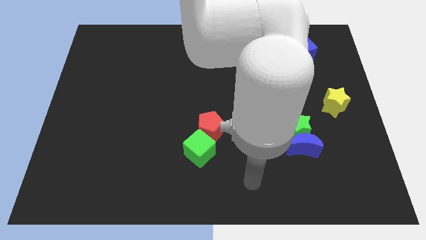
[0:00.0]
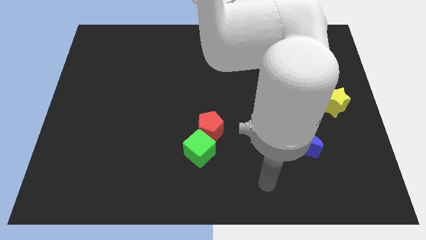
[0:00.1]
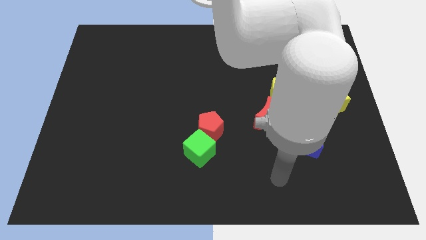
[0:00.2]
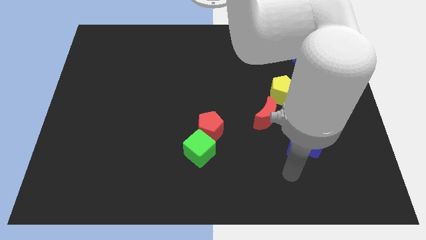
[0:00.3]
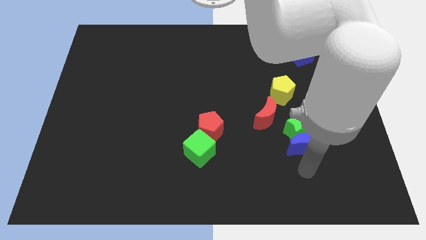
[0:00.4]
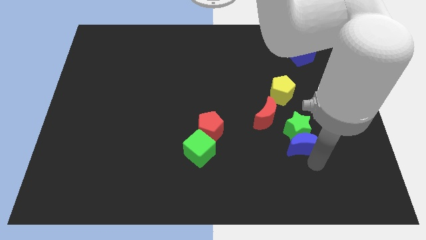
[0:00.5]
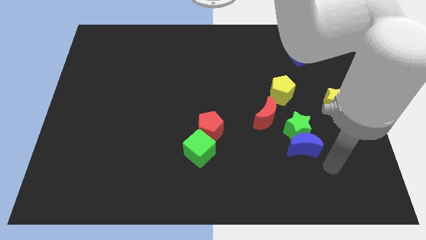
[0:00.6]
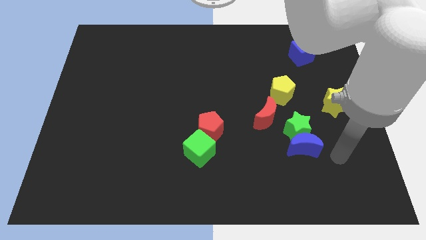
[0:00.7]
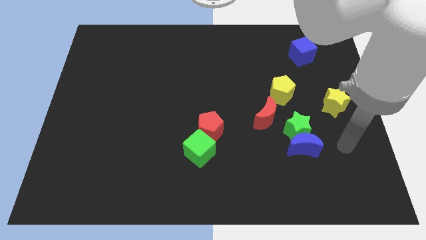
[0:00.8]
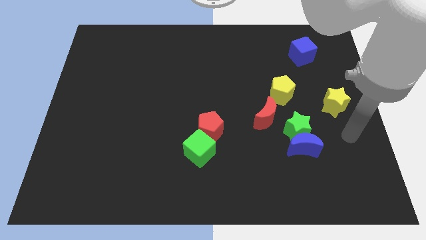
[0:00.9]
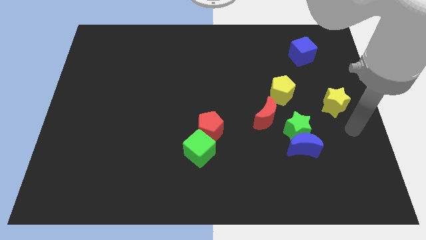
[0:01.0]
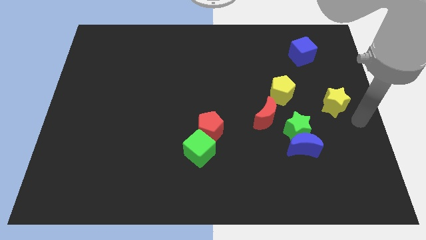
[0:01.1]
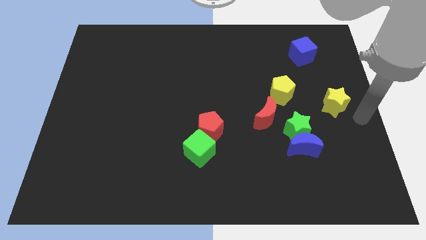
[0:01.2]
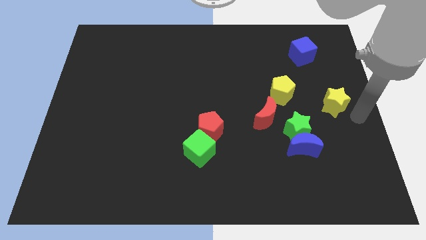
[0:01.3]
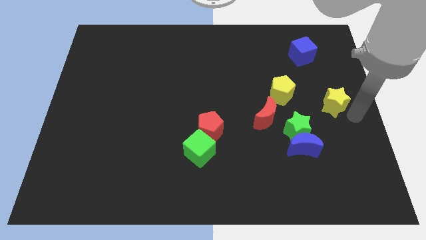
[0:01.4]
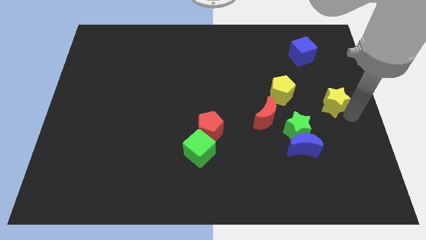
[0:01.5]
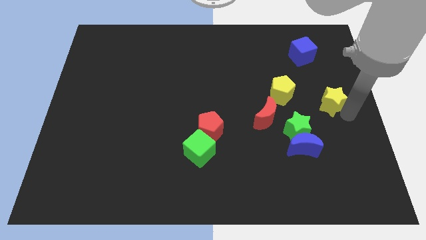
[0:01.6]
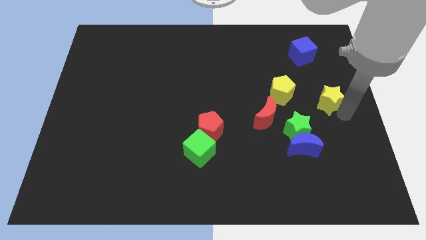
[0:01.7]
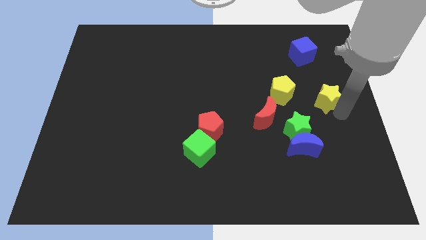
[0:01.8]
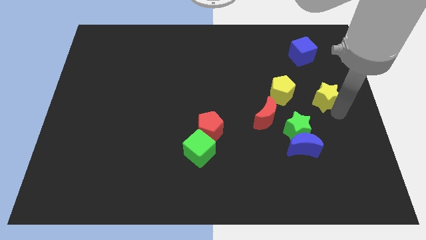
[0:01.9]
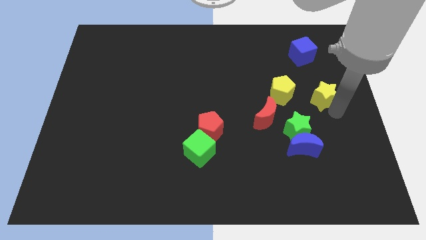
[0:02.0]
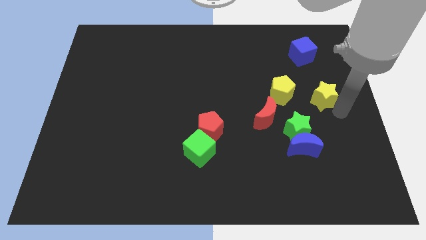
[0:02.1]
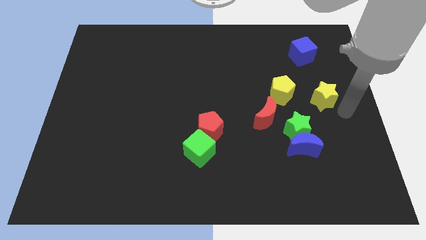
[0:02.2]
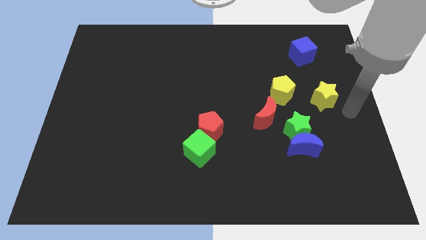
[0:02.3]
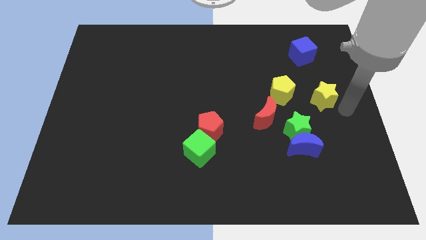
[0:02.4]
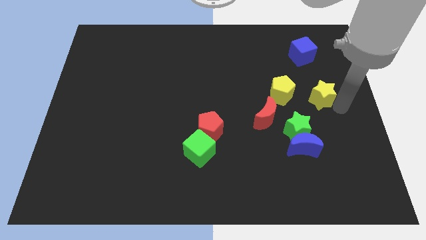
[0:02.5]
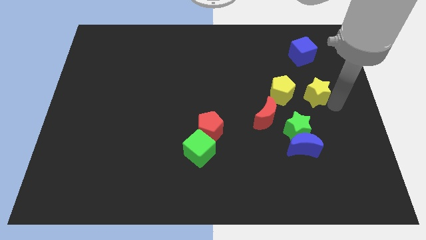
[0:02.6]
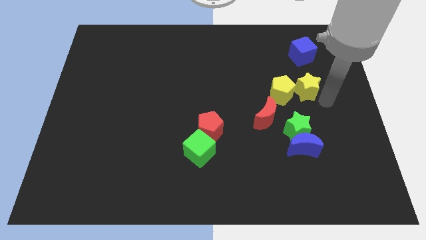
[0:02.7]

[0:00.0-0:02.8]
slide the yellow star slightly up and to the left diagonally

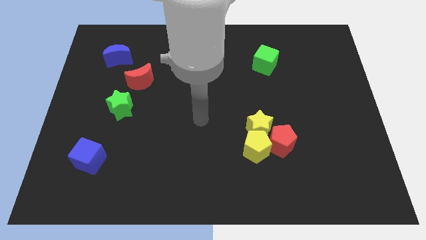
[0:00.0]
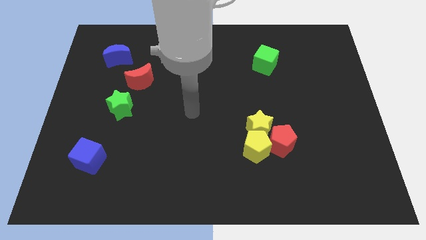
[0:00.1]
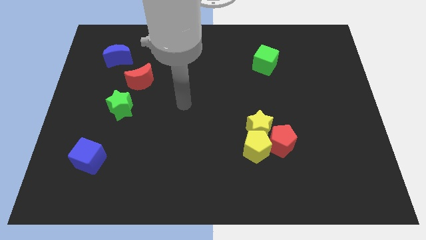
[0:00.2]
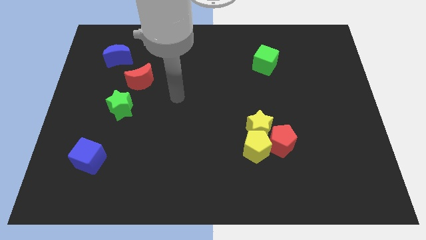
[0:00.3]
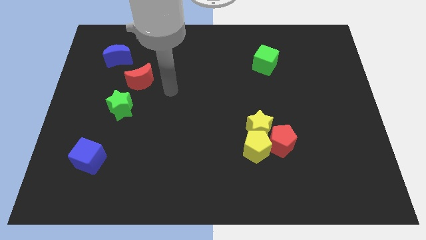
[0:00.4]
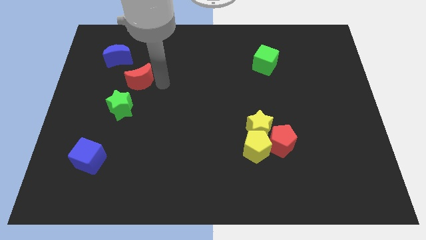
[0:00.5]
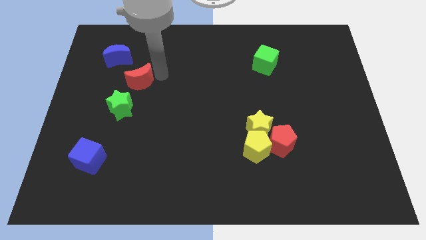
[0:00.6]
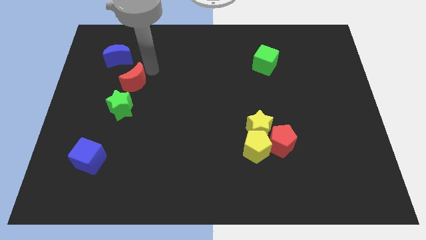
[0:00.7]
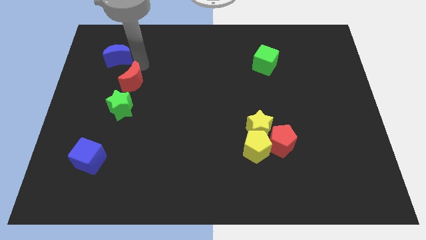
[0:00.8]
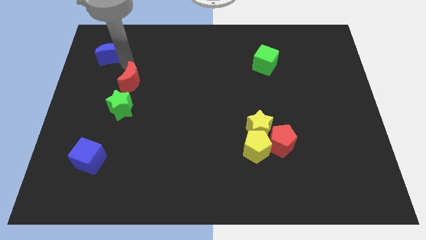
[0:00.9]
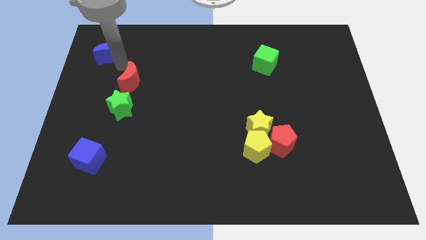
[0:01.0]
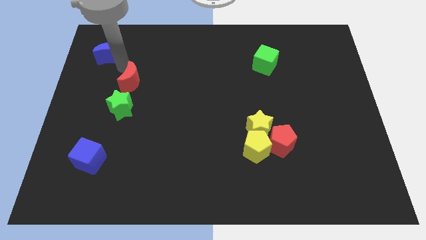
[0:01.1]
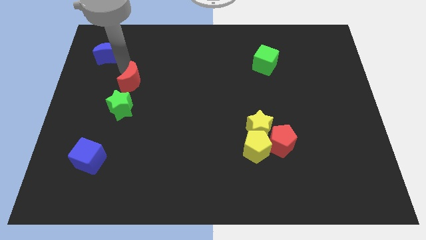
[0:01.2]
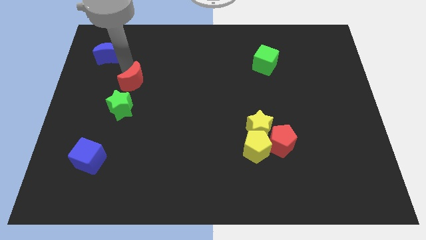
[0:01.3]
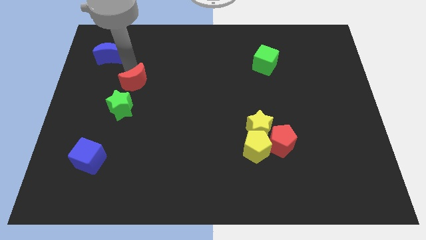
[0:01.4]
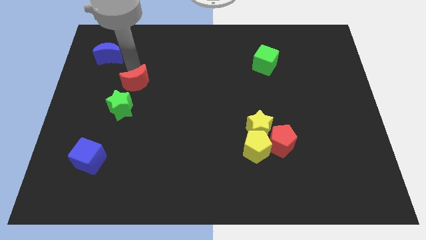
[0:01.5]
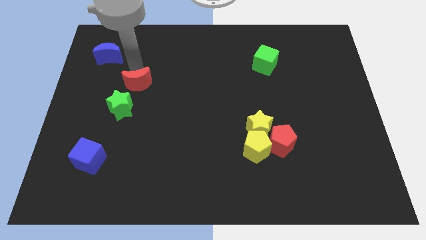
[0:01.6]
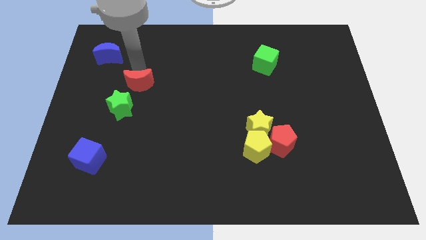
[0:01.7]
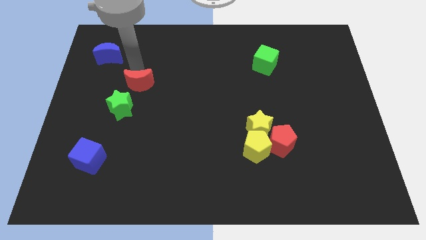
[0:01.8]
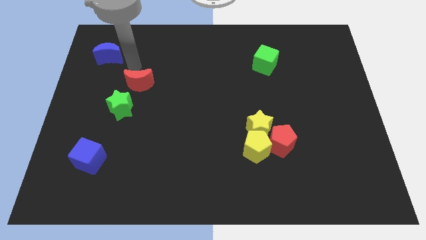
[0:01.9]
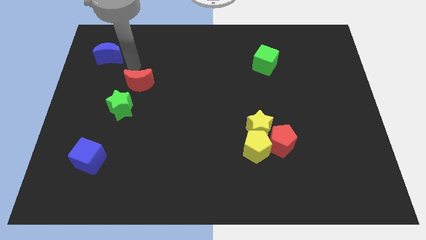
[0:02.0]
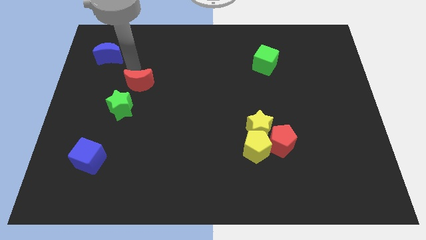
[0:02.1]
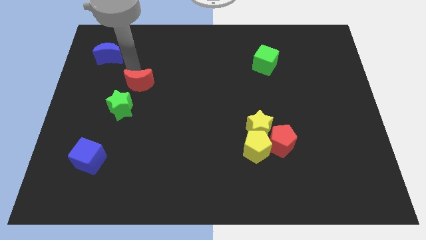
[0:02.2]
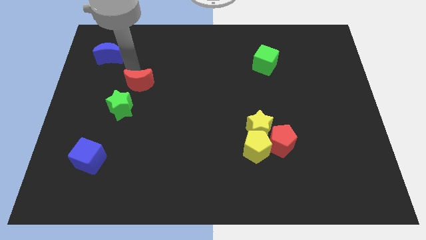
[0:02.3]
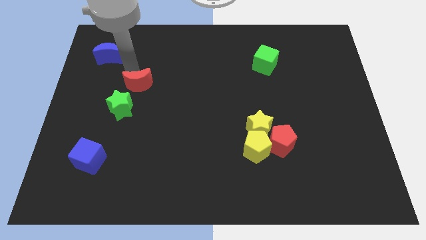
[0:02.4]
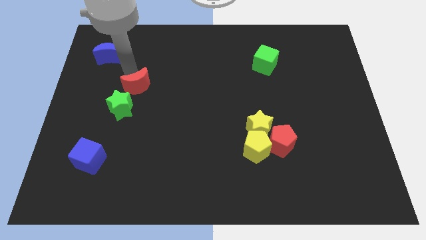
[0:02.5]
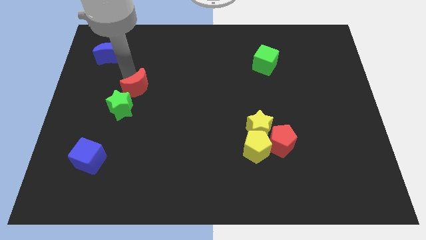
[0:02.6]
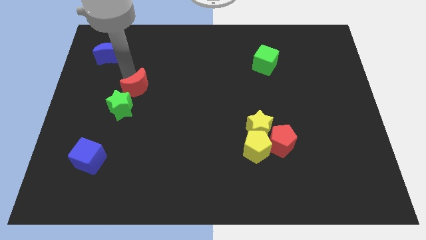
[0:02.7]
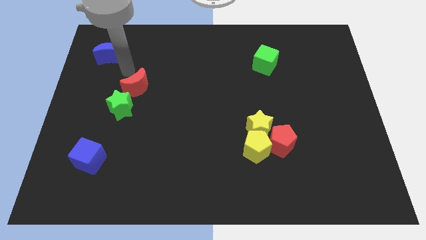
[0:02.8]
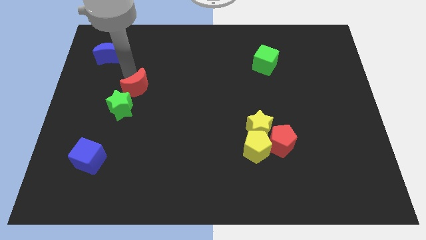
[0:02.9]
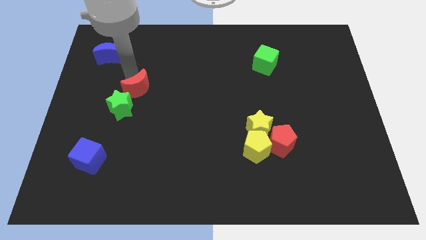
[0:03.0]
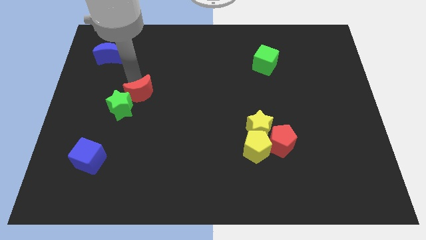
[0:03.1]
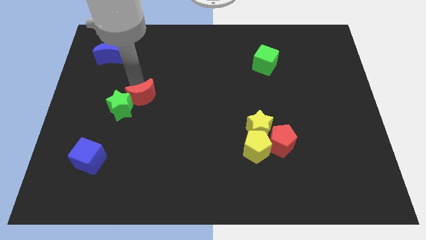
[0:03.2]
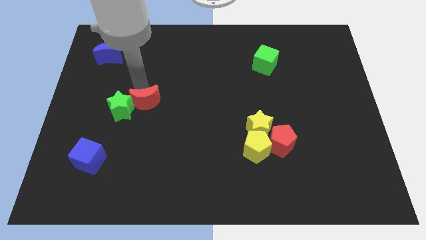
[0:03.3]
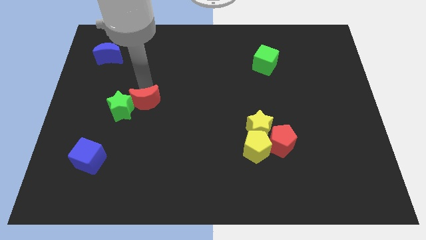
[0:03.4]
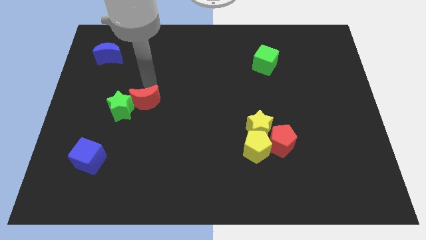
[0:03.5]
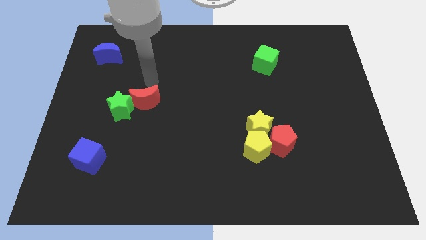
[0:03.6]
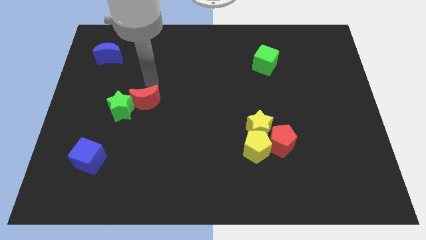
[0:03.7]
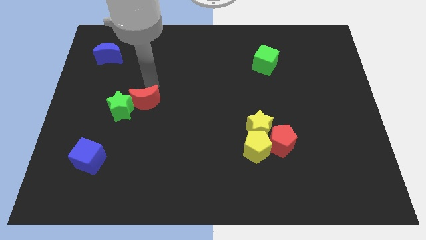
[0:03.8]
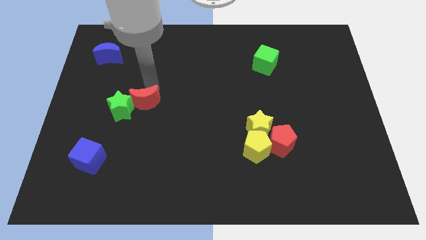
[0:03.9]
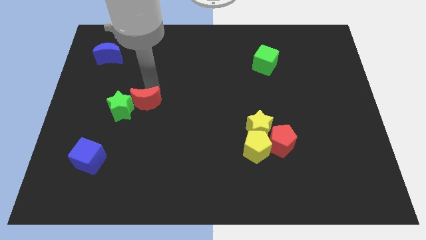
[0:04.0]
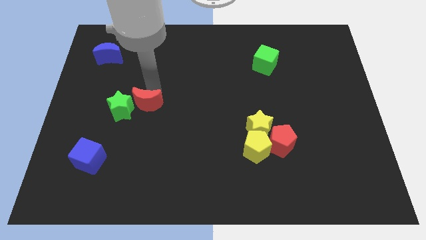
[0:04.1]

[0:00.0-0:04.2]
slide the red moon downwards somewhat

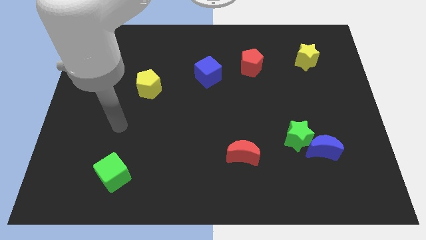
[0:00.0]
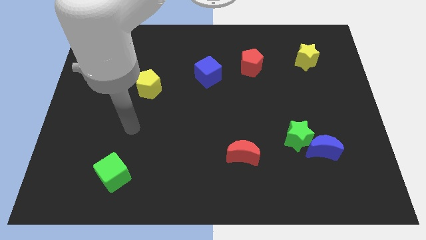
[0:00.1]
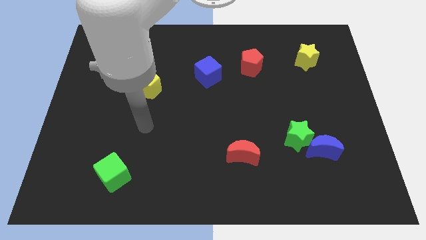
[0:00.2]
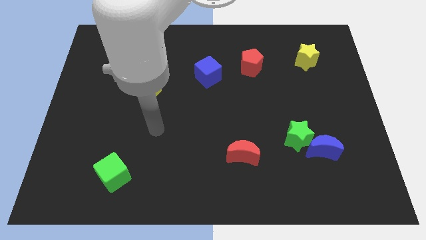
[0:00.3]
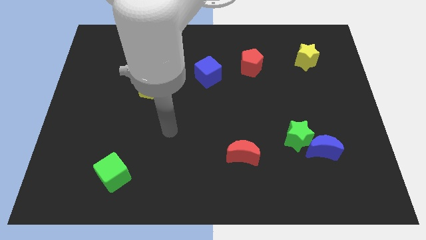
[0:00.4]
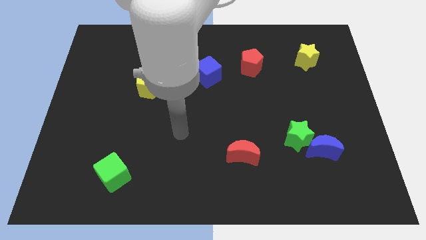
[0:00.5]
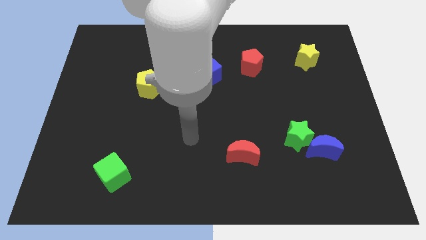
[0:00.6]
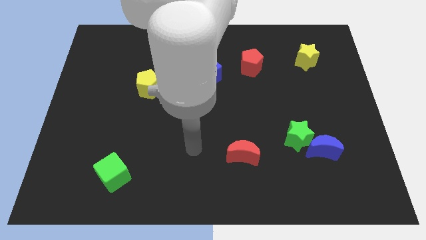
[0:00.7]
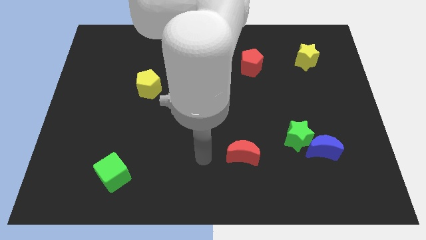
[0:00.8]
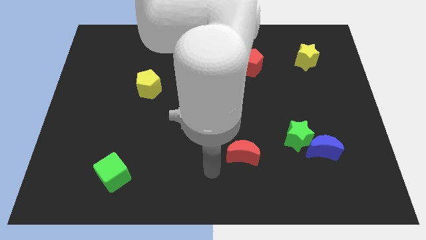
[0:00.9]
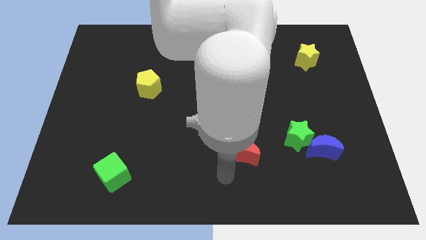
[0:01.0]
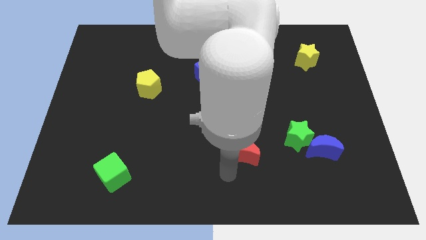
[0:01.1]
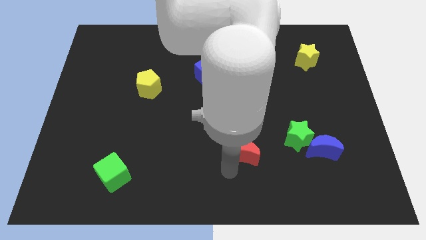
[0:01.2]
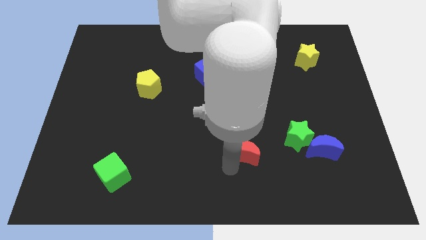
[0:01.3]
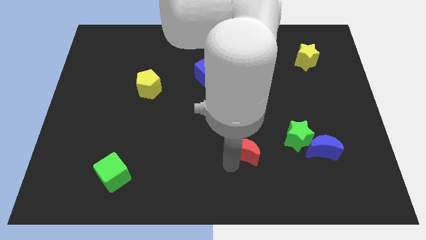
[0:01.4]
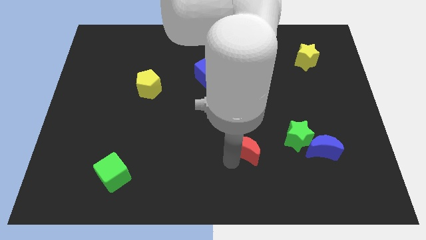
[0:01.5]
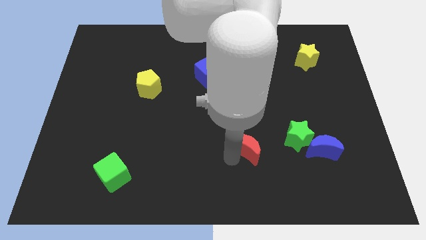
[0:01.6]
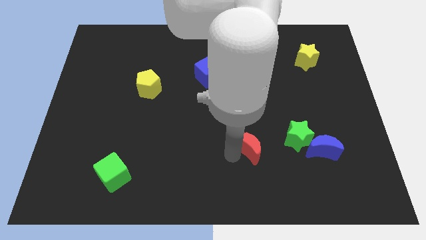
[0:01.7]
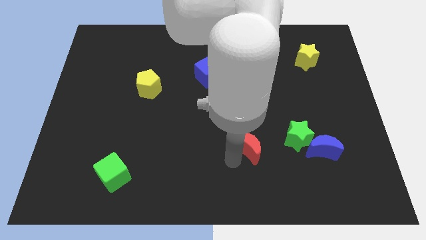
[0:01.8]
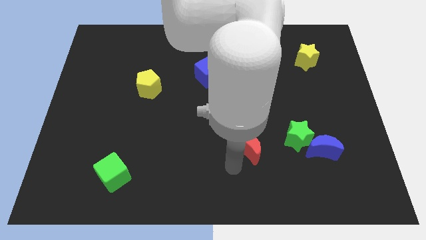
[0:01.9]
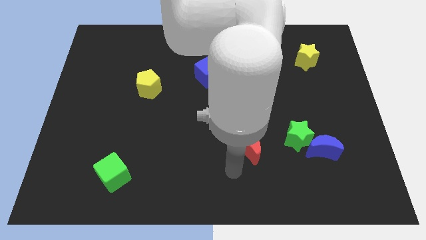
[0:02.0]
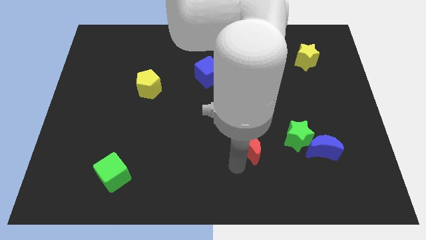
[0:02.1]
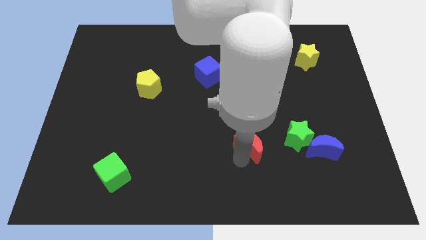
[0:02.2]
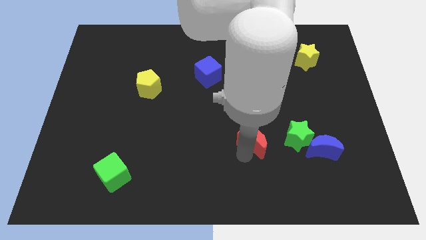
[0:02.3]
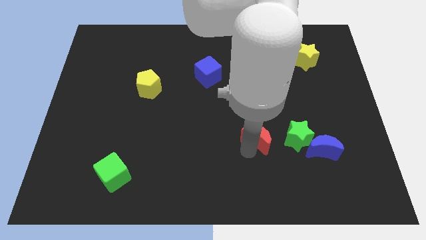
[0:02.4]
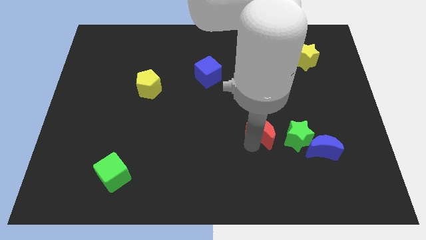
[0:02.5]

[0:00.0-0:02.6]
push the red moon slightly upwards and to the right diagonally
